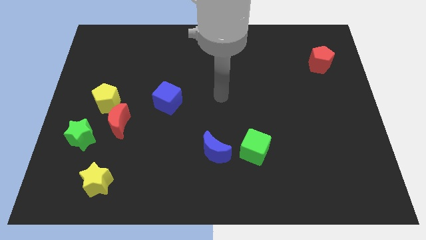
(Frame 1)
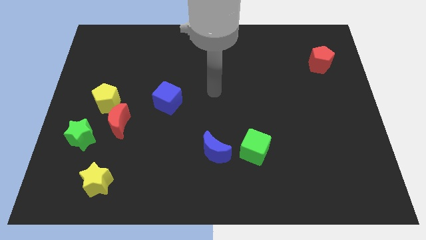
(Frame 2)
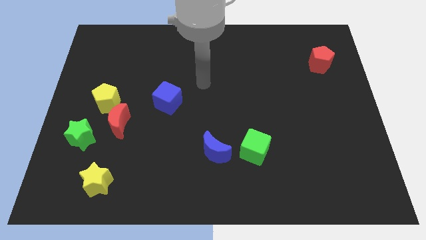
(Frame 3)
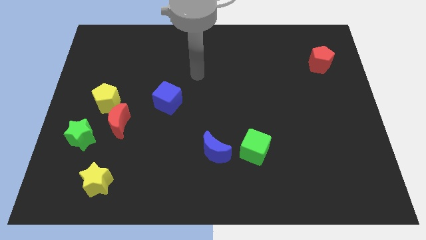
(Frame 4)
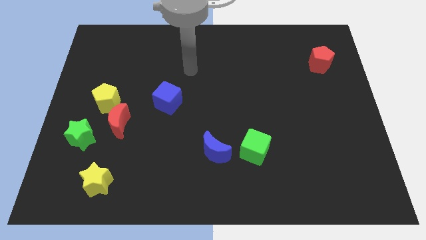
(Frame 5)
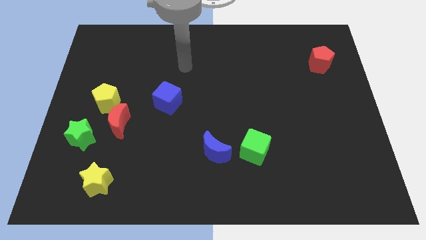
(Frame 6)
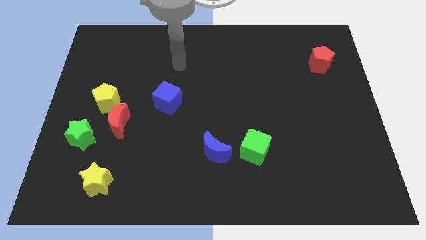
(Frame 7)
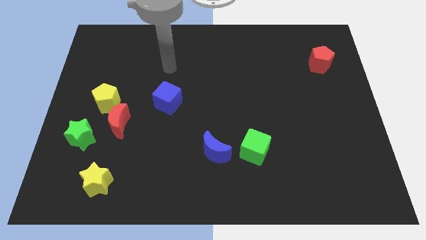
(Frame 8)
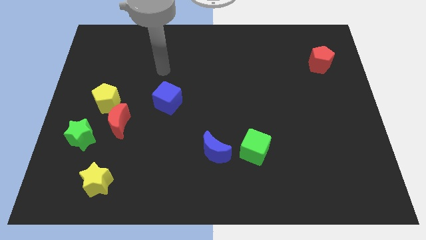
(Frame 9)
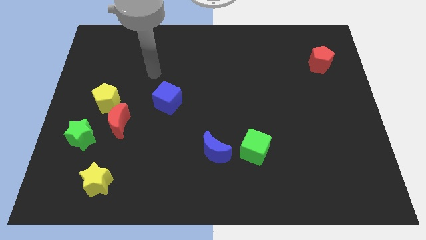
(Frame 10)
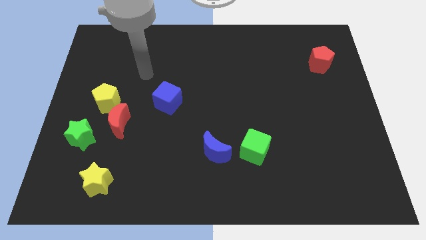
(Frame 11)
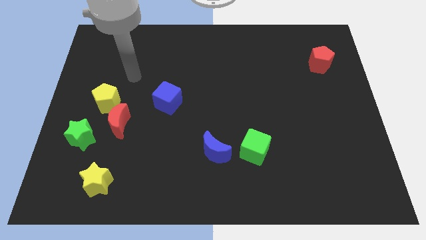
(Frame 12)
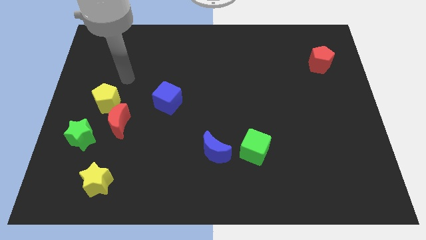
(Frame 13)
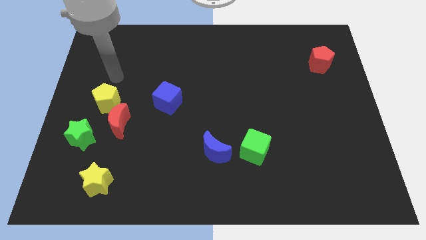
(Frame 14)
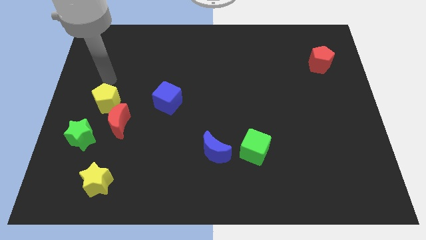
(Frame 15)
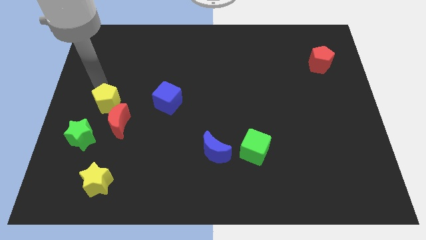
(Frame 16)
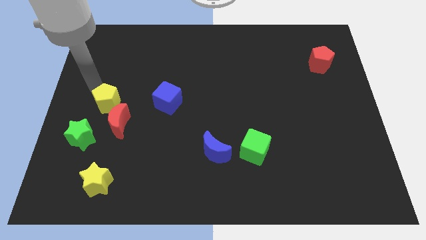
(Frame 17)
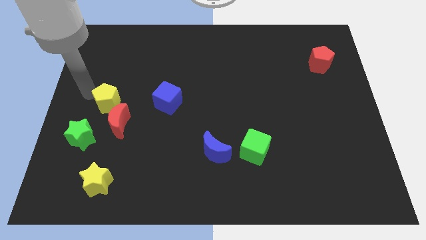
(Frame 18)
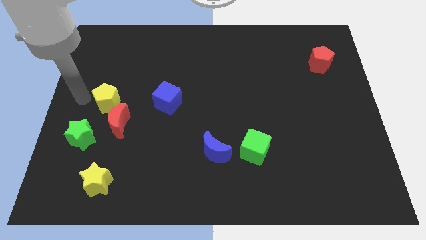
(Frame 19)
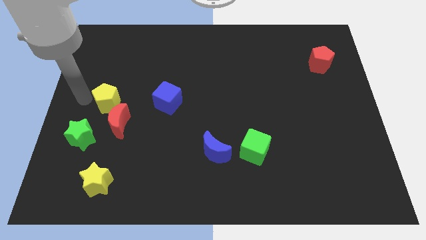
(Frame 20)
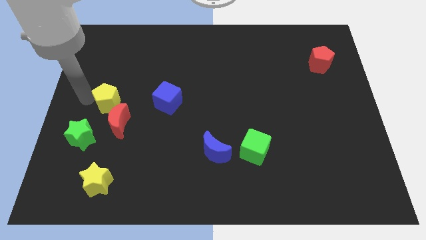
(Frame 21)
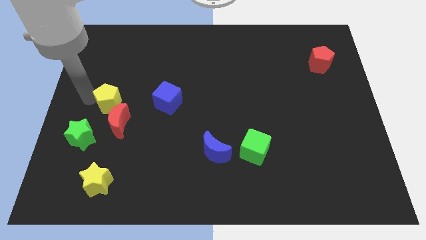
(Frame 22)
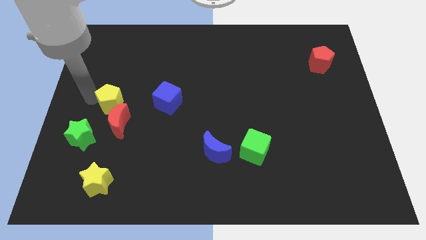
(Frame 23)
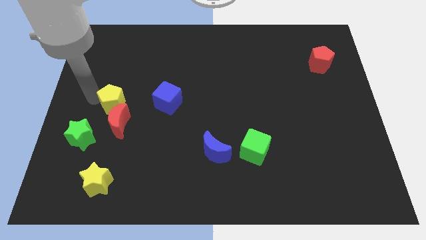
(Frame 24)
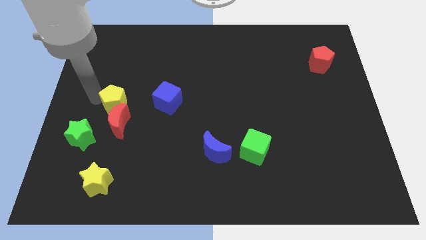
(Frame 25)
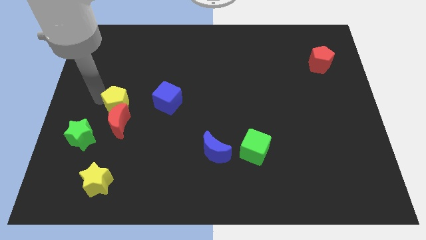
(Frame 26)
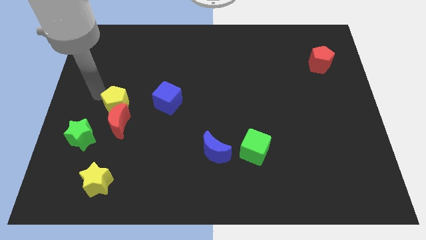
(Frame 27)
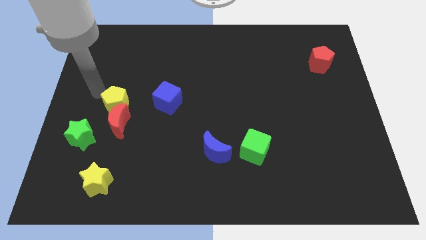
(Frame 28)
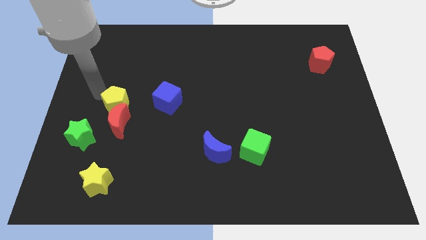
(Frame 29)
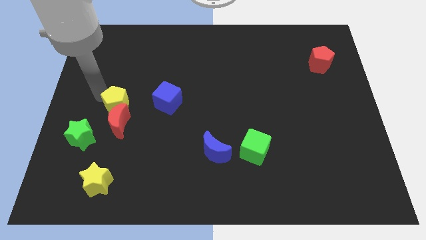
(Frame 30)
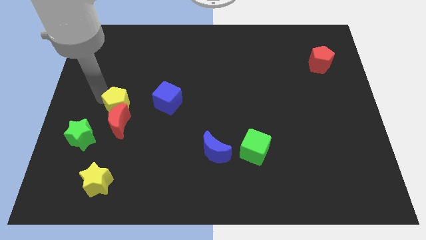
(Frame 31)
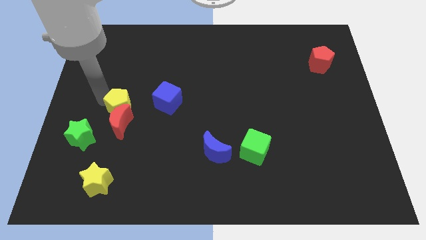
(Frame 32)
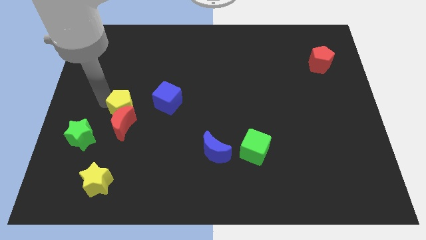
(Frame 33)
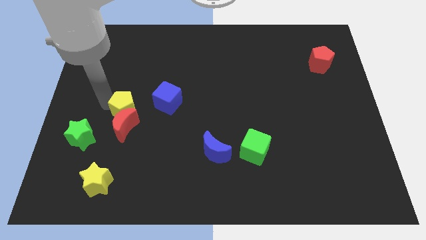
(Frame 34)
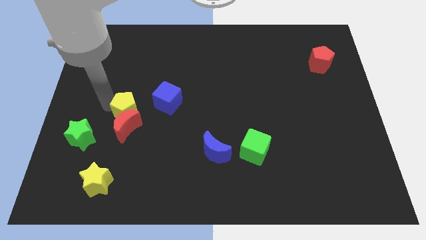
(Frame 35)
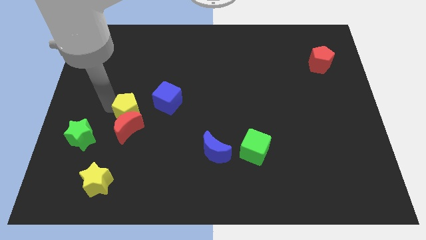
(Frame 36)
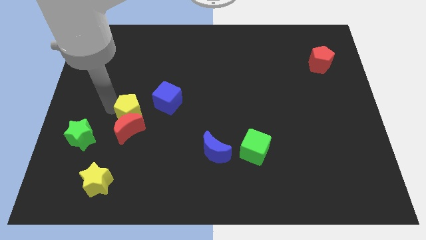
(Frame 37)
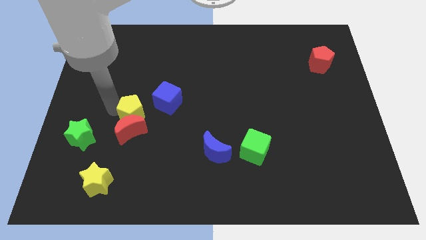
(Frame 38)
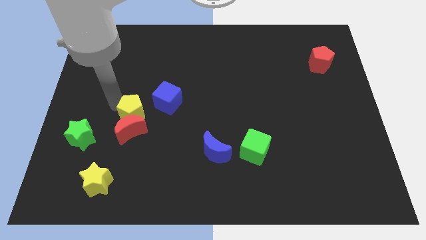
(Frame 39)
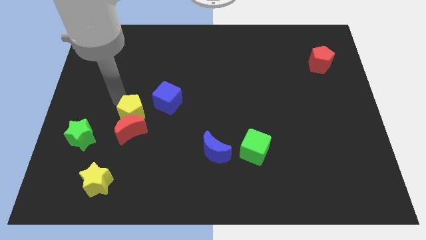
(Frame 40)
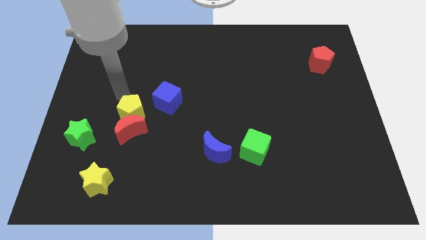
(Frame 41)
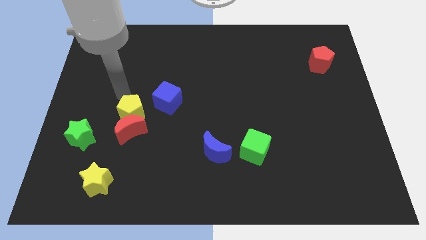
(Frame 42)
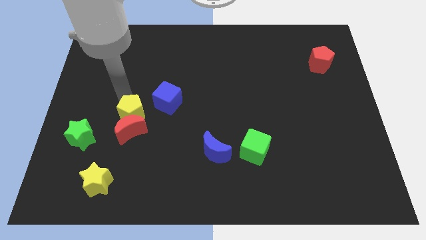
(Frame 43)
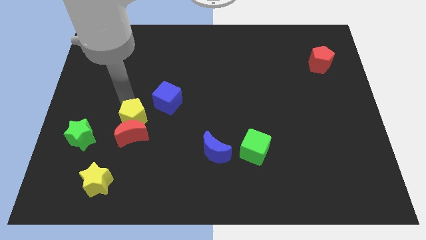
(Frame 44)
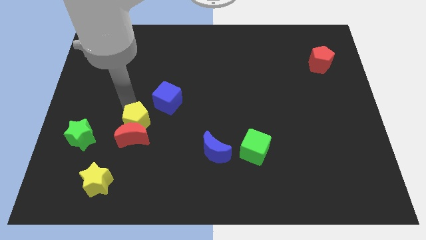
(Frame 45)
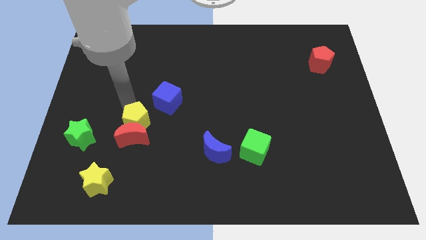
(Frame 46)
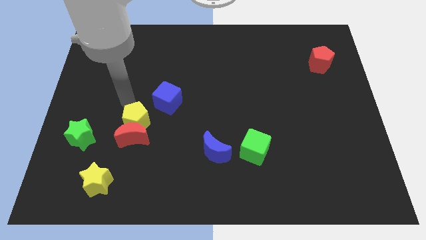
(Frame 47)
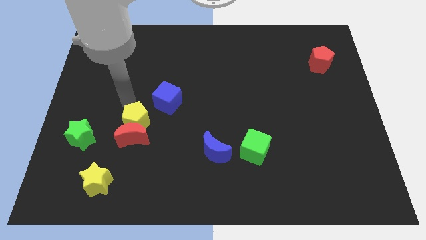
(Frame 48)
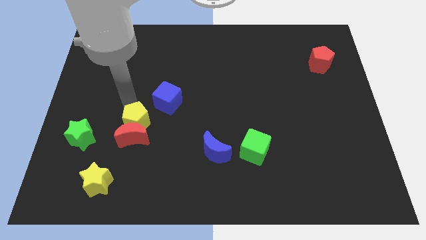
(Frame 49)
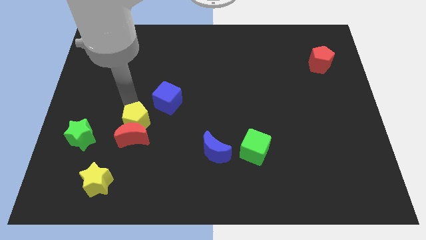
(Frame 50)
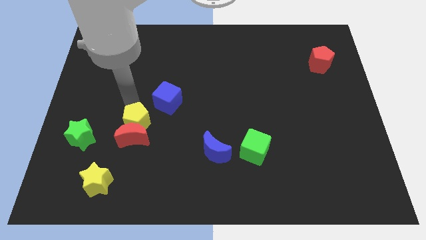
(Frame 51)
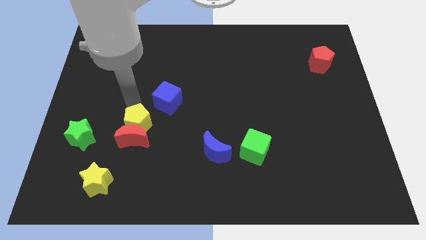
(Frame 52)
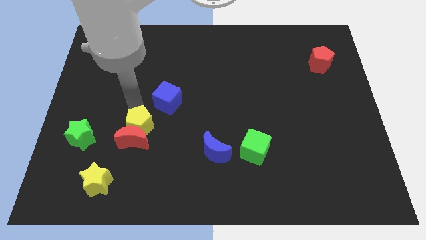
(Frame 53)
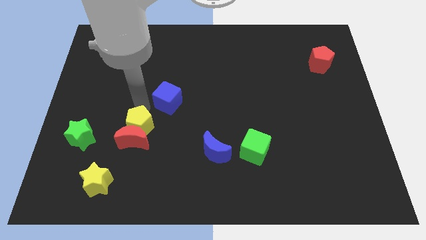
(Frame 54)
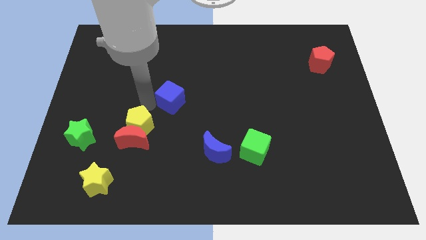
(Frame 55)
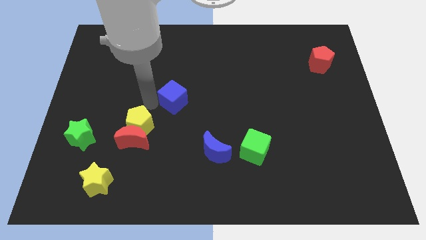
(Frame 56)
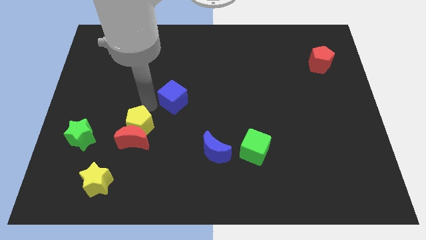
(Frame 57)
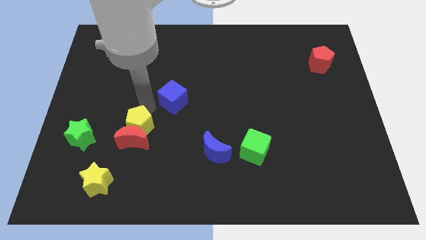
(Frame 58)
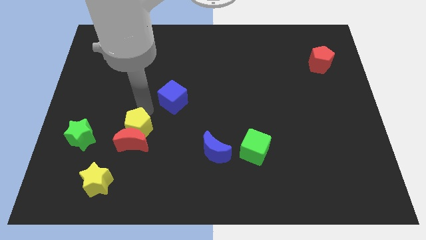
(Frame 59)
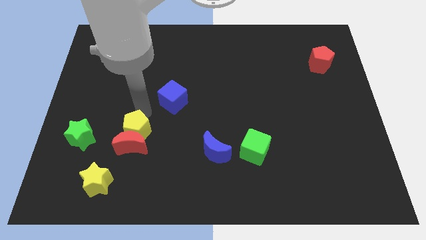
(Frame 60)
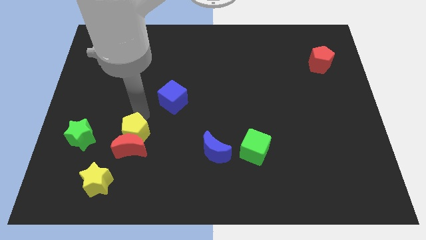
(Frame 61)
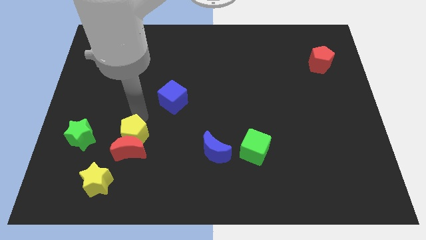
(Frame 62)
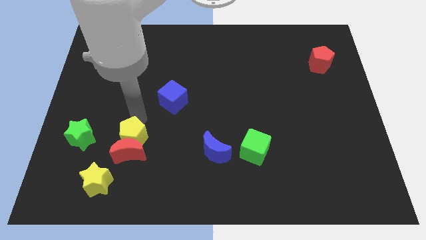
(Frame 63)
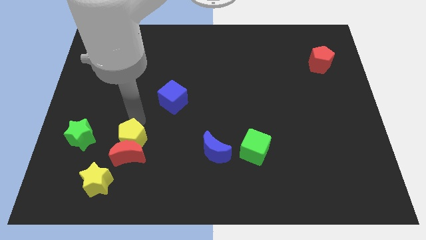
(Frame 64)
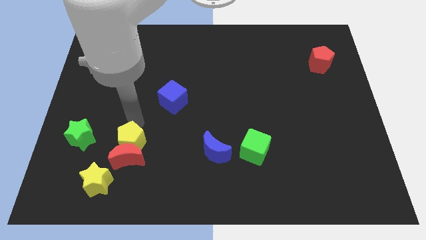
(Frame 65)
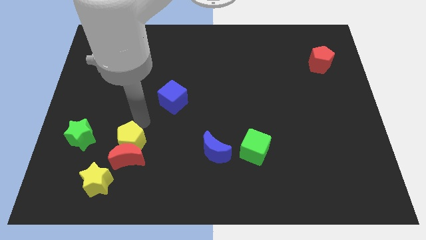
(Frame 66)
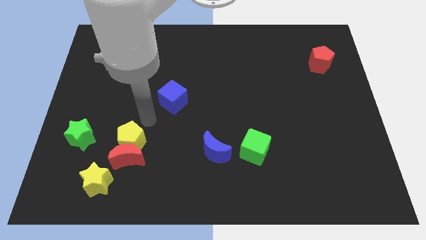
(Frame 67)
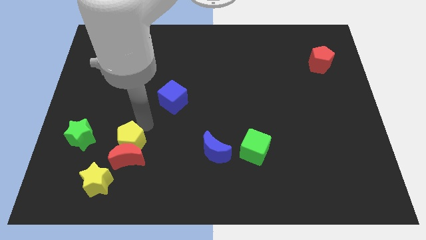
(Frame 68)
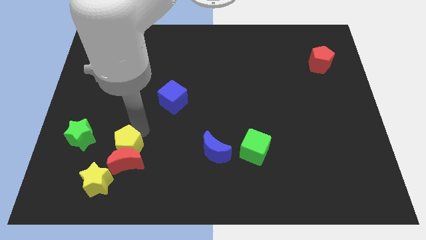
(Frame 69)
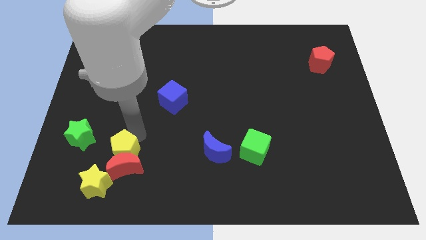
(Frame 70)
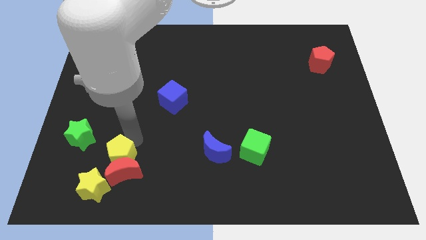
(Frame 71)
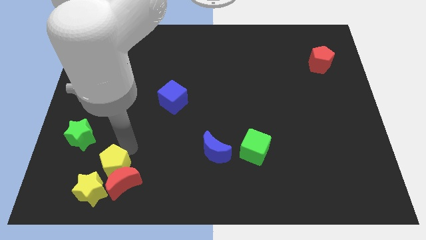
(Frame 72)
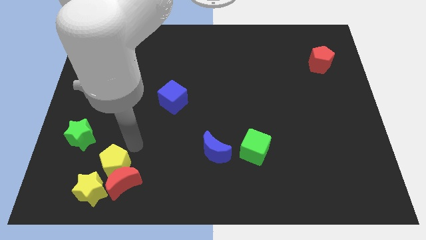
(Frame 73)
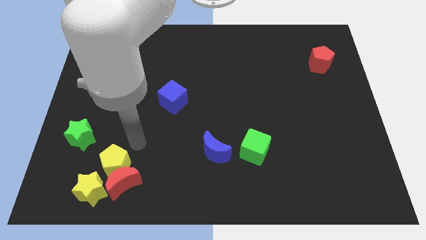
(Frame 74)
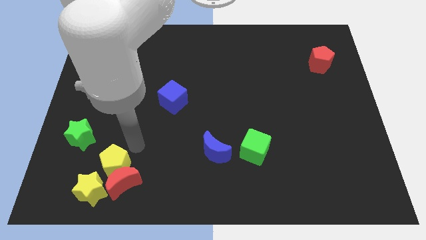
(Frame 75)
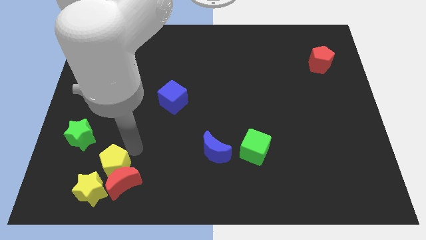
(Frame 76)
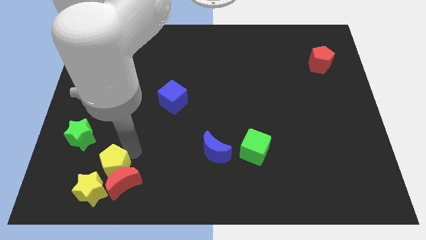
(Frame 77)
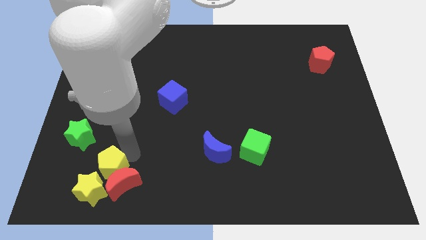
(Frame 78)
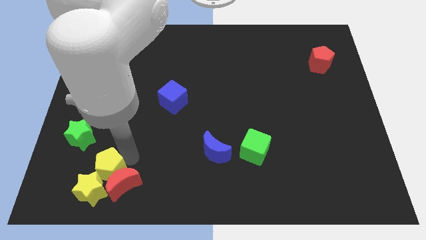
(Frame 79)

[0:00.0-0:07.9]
put the yellow pentagon to the yellow star
